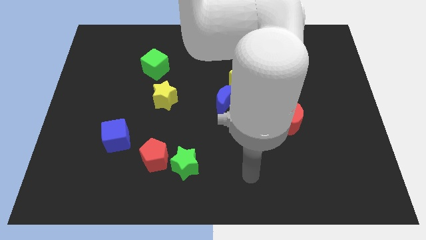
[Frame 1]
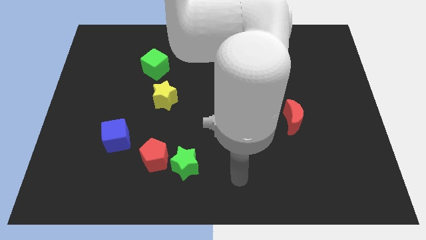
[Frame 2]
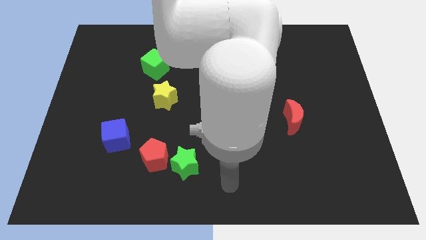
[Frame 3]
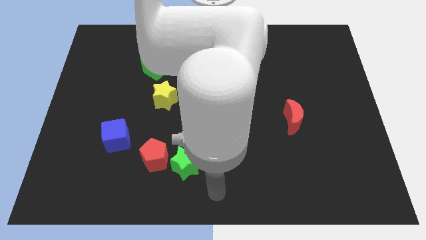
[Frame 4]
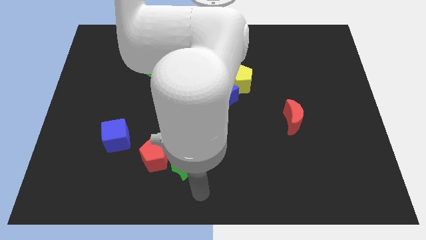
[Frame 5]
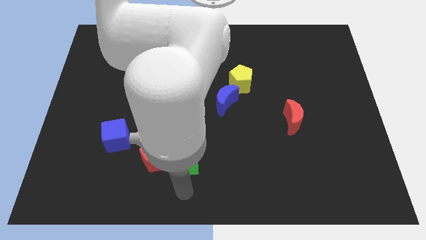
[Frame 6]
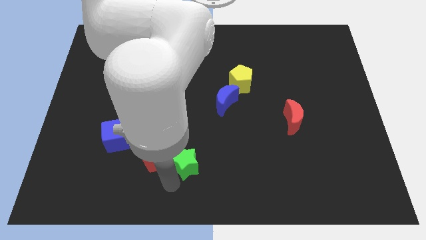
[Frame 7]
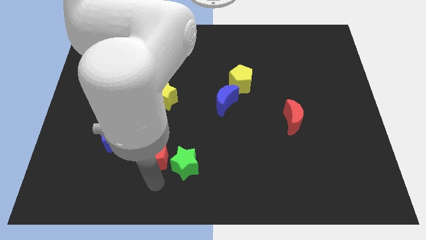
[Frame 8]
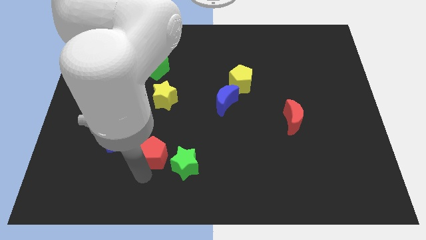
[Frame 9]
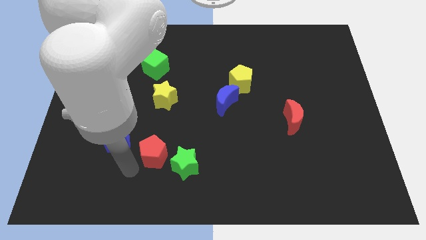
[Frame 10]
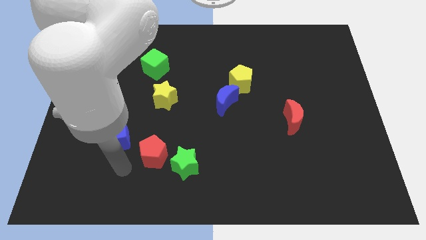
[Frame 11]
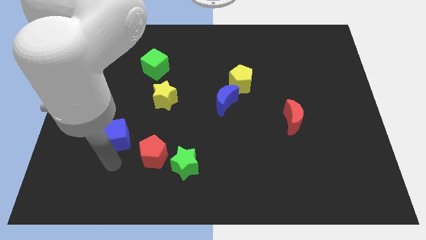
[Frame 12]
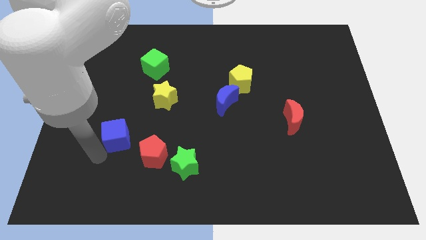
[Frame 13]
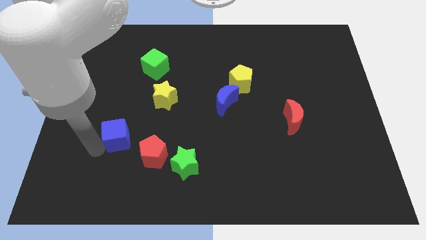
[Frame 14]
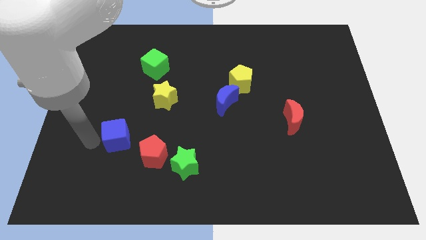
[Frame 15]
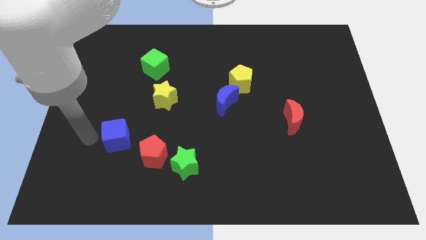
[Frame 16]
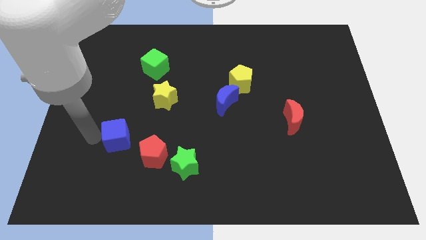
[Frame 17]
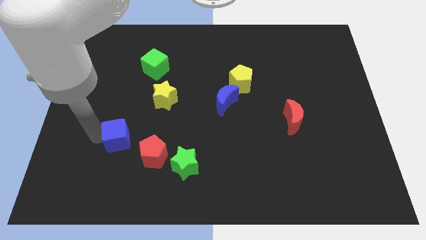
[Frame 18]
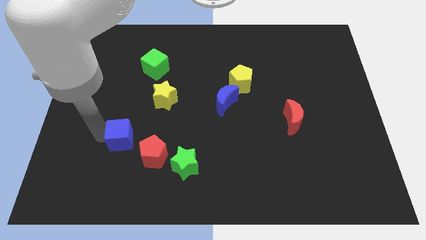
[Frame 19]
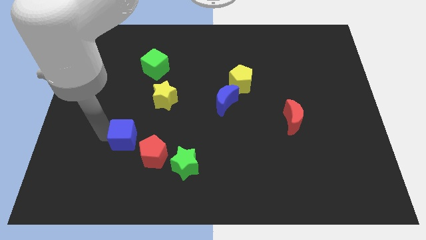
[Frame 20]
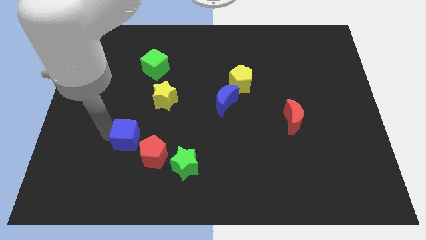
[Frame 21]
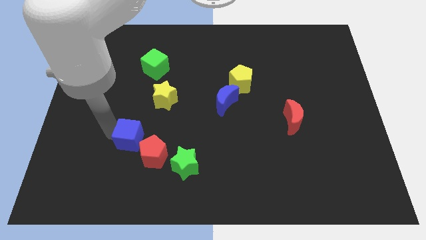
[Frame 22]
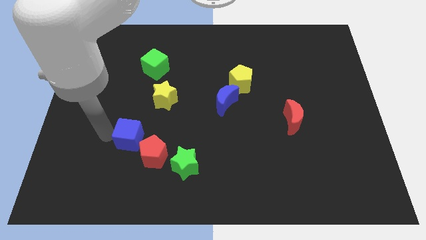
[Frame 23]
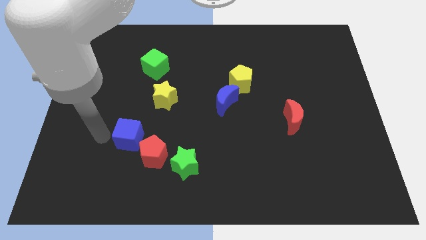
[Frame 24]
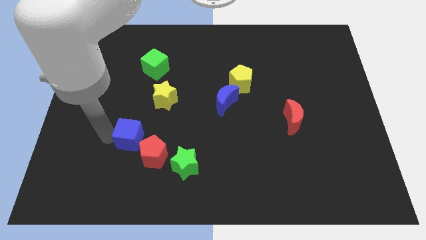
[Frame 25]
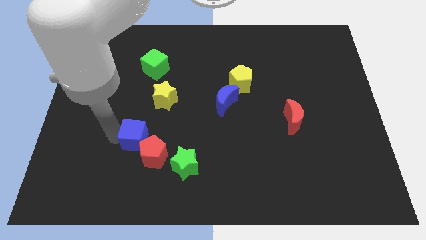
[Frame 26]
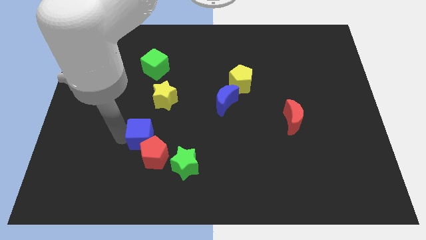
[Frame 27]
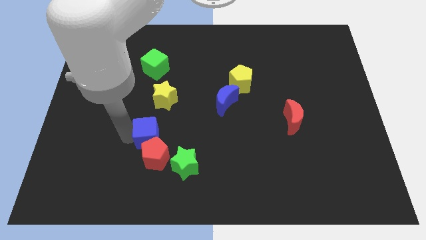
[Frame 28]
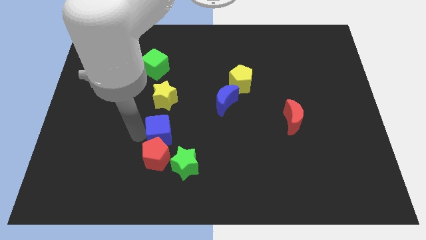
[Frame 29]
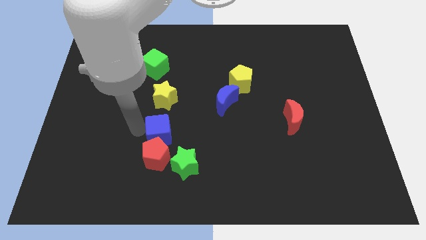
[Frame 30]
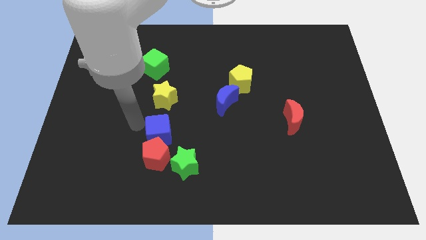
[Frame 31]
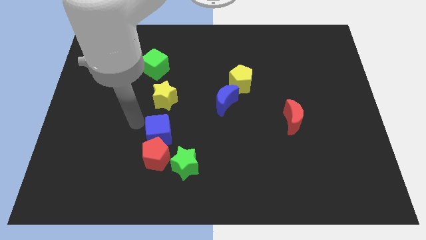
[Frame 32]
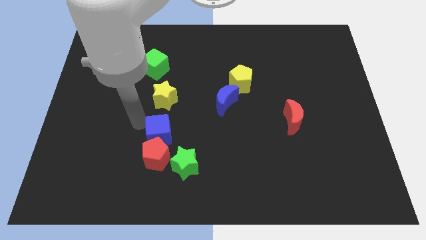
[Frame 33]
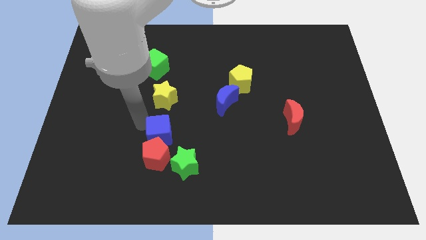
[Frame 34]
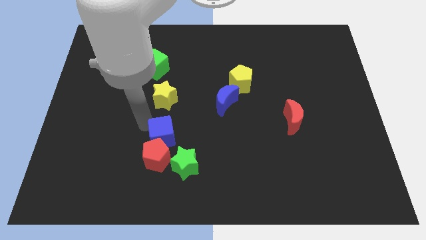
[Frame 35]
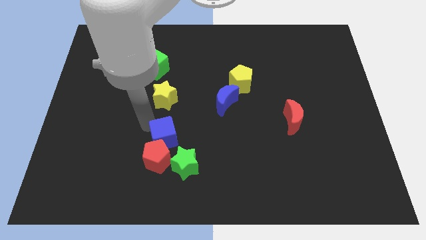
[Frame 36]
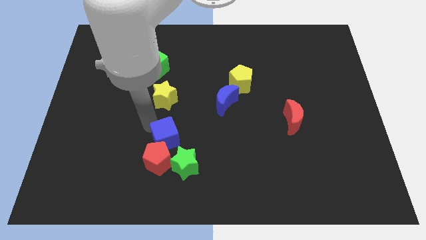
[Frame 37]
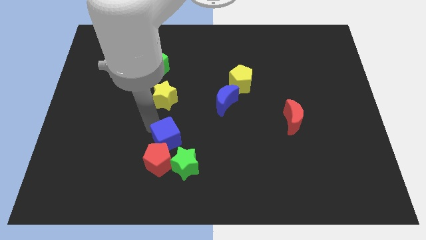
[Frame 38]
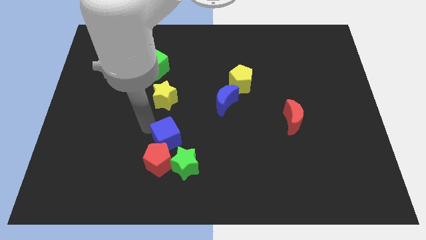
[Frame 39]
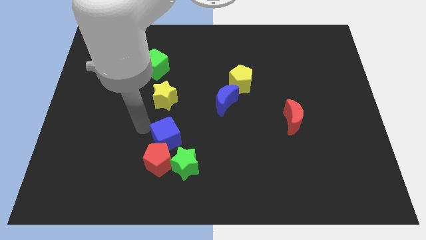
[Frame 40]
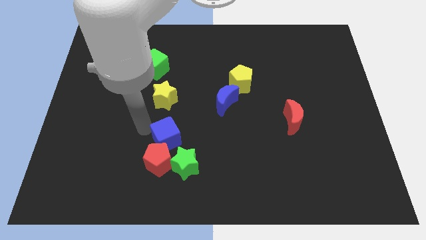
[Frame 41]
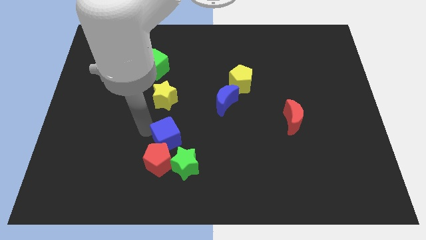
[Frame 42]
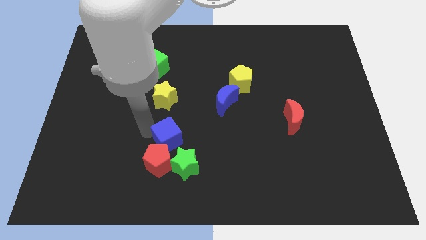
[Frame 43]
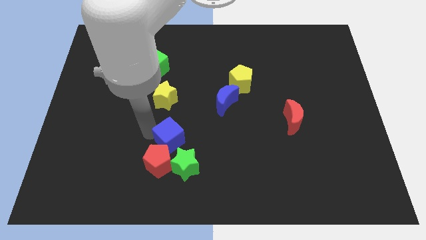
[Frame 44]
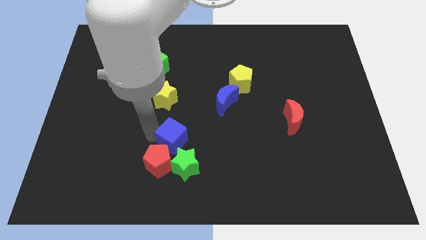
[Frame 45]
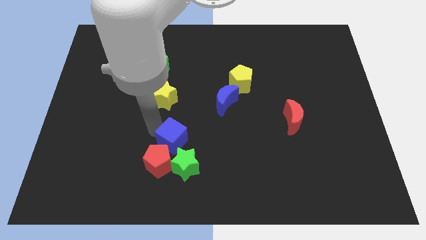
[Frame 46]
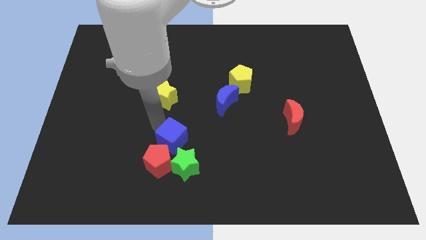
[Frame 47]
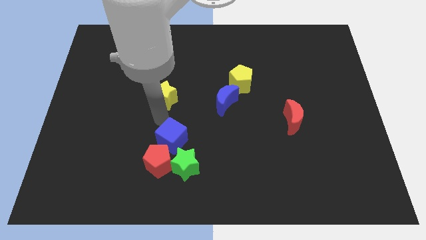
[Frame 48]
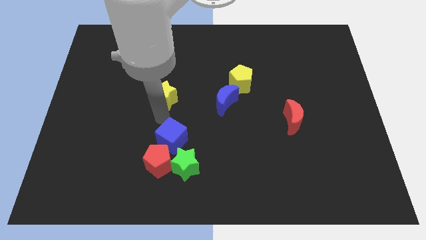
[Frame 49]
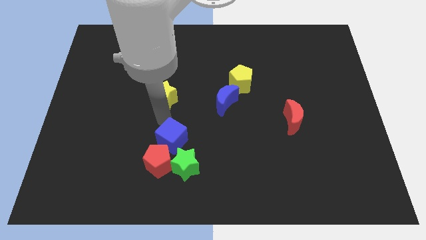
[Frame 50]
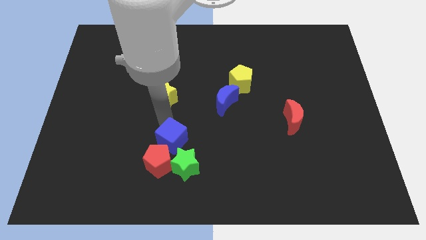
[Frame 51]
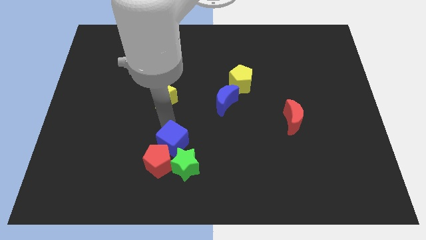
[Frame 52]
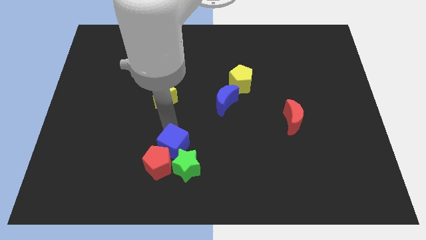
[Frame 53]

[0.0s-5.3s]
push the blue cube close to the green star

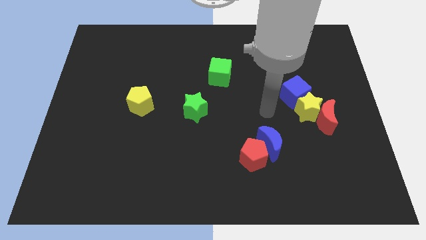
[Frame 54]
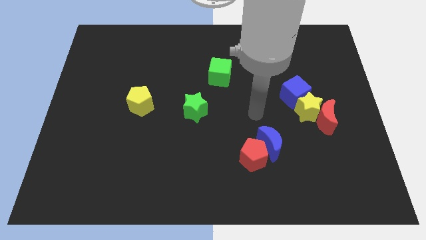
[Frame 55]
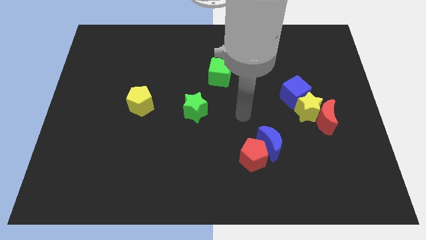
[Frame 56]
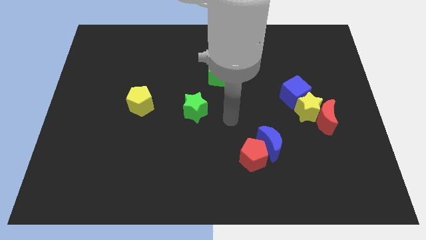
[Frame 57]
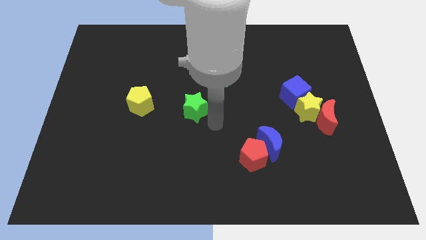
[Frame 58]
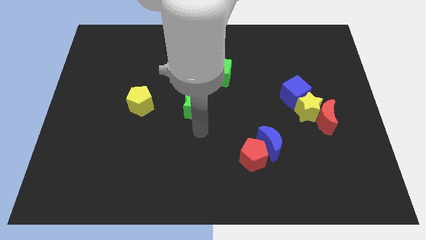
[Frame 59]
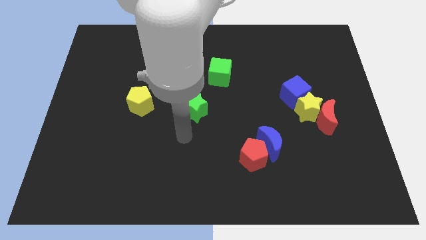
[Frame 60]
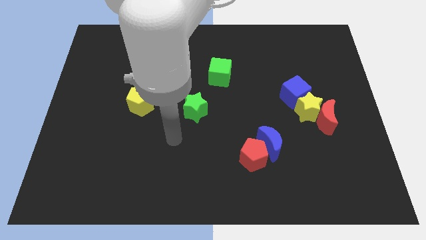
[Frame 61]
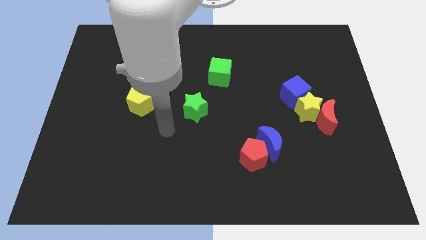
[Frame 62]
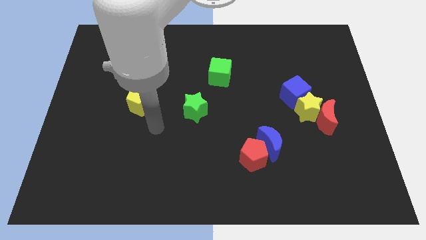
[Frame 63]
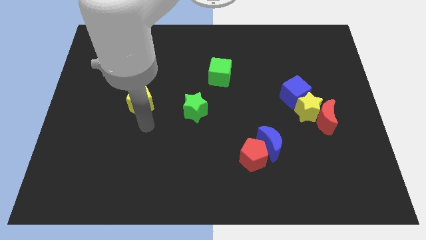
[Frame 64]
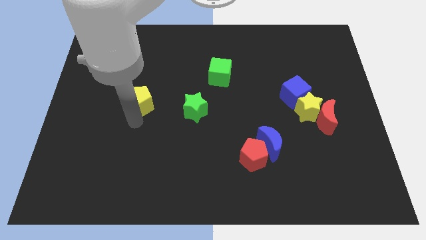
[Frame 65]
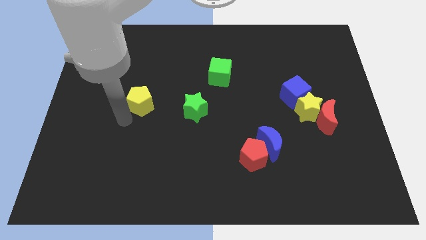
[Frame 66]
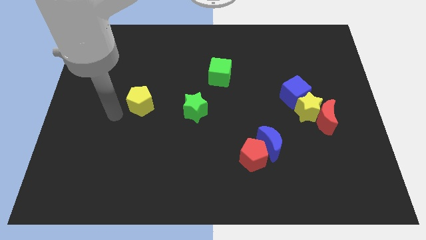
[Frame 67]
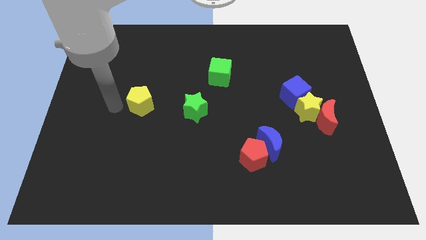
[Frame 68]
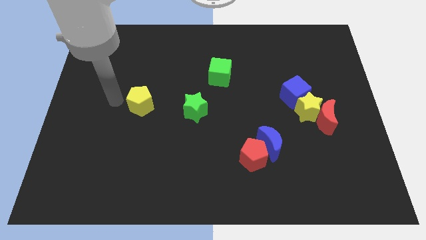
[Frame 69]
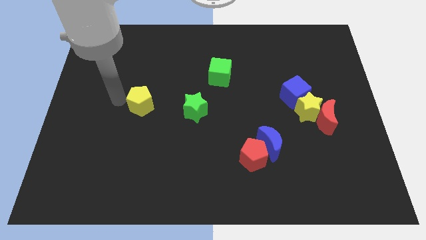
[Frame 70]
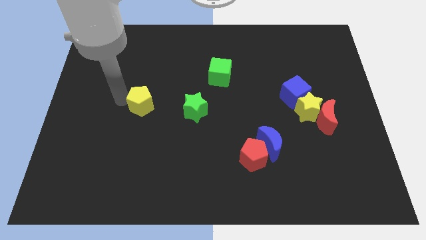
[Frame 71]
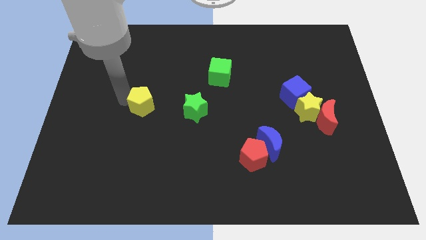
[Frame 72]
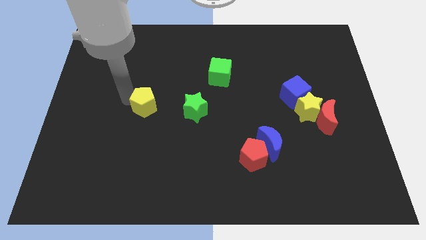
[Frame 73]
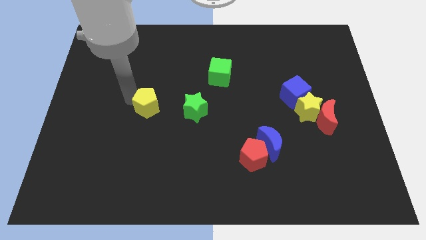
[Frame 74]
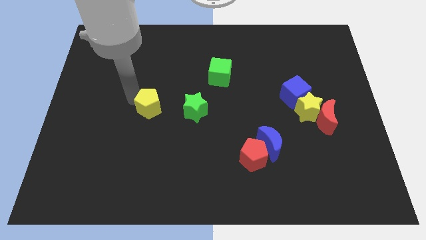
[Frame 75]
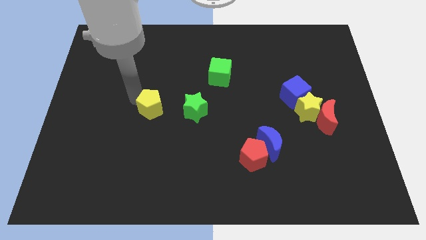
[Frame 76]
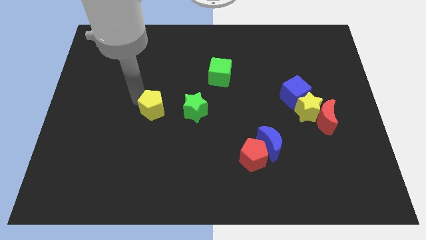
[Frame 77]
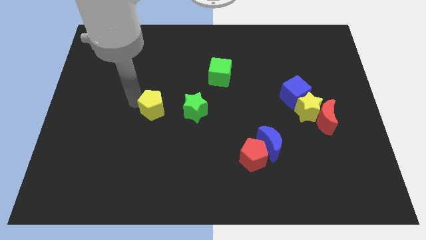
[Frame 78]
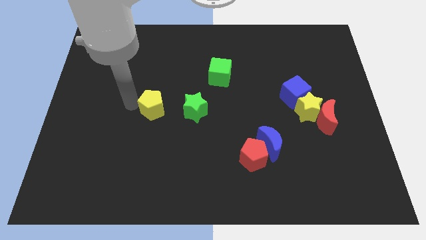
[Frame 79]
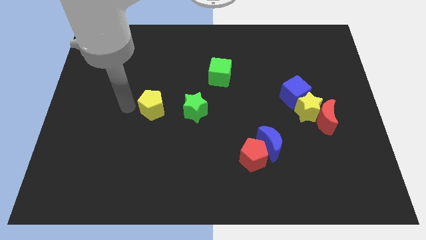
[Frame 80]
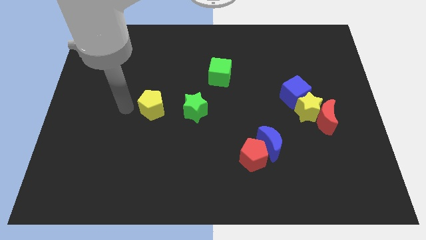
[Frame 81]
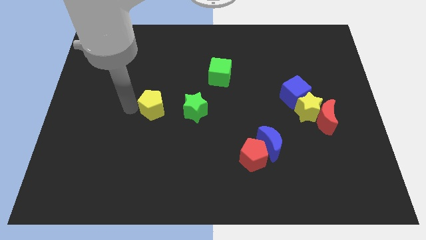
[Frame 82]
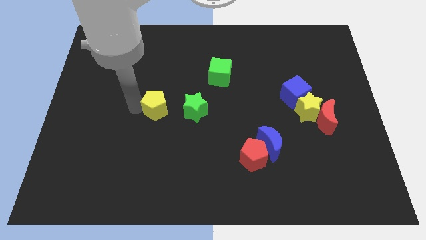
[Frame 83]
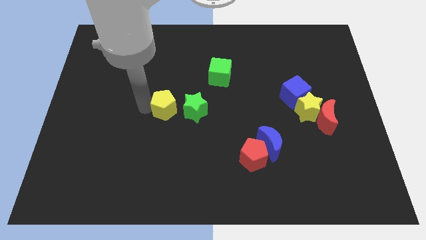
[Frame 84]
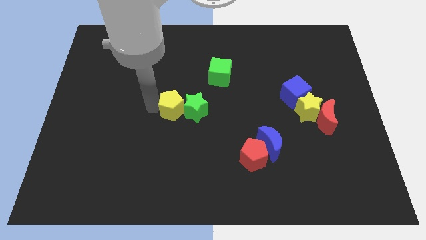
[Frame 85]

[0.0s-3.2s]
put the yellow pentagon close to the green star
